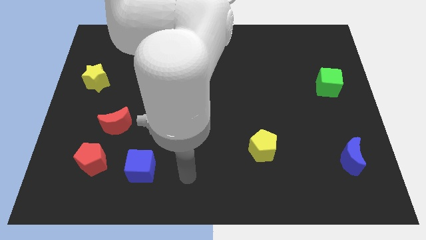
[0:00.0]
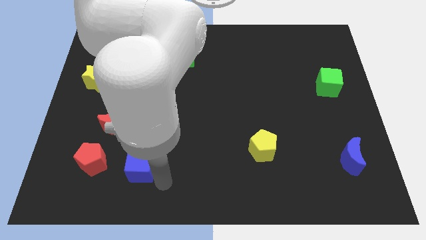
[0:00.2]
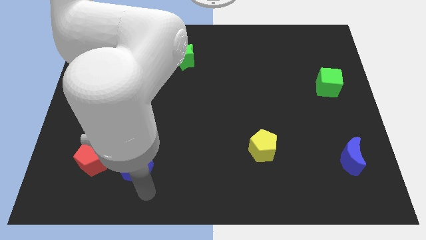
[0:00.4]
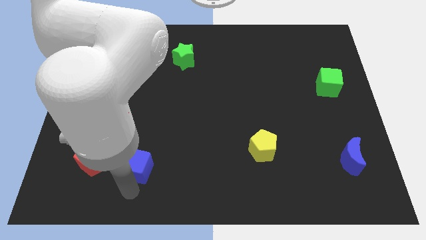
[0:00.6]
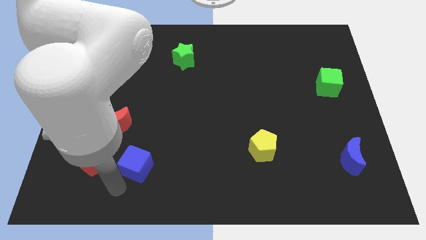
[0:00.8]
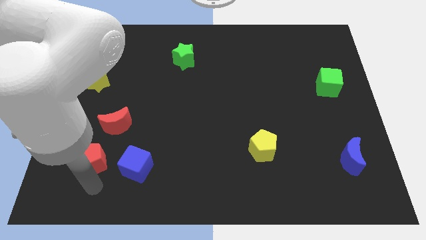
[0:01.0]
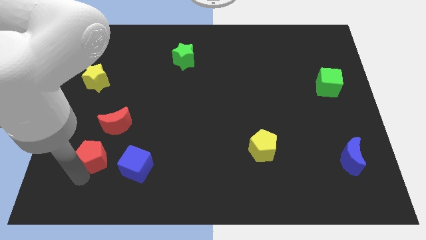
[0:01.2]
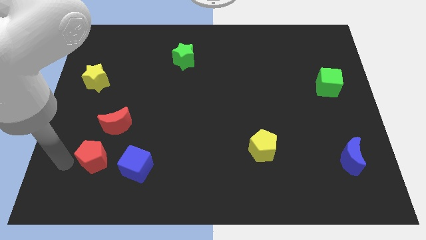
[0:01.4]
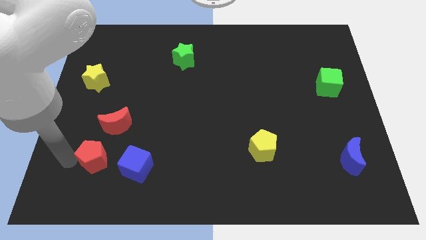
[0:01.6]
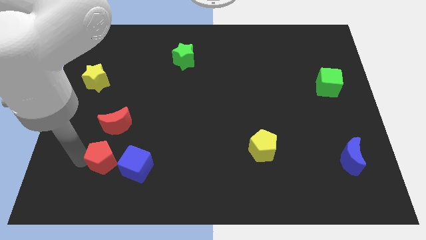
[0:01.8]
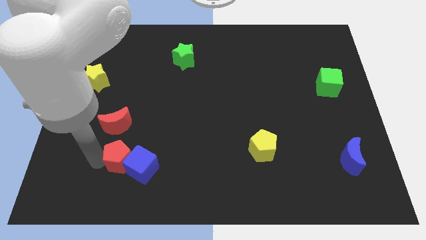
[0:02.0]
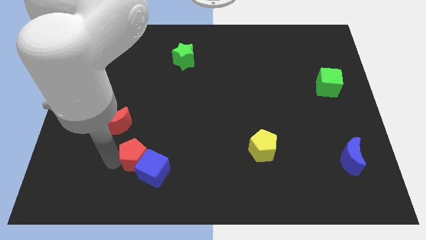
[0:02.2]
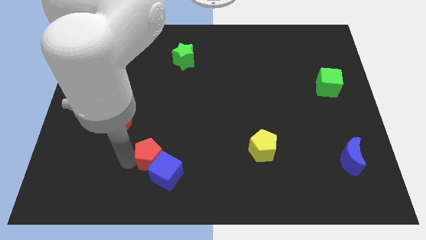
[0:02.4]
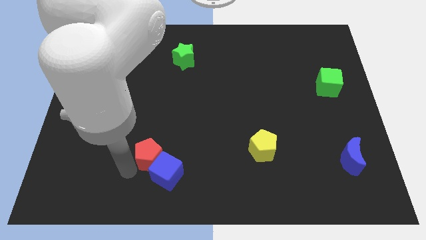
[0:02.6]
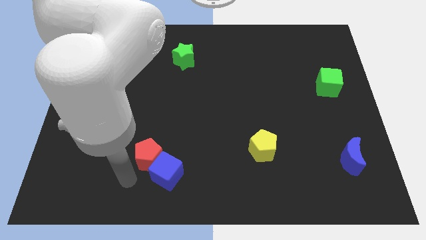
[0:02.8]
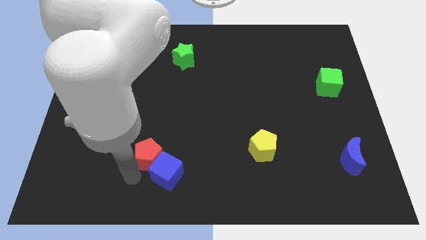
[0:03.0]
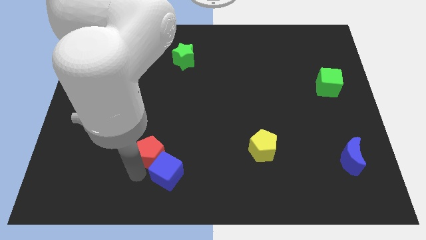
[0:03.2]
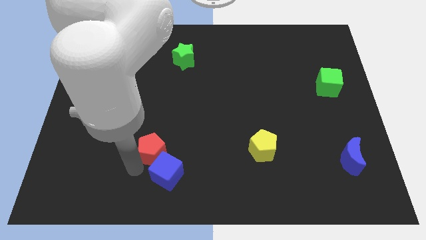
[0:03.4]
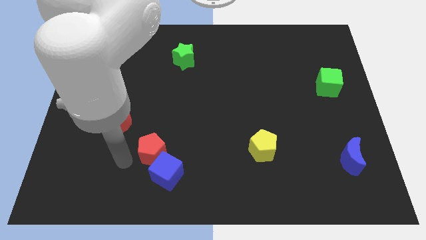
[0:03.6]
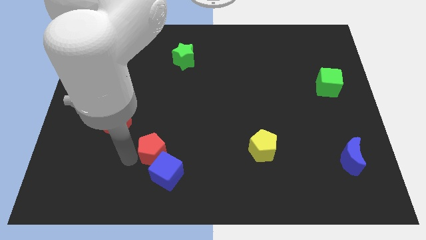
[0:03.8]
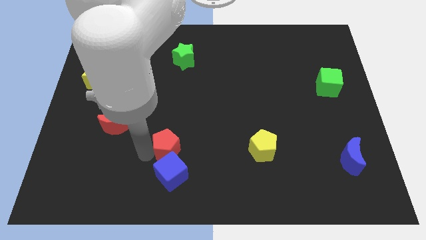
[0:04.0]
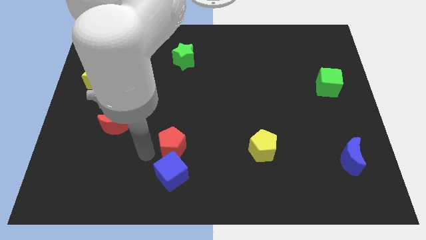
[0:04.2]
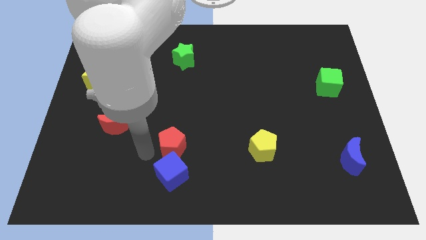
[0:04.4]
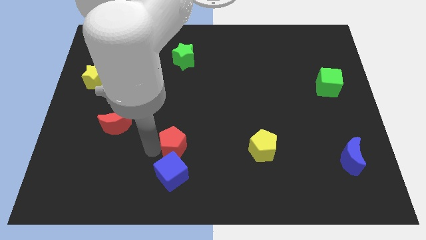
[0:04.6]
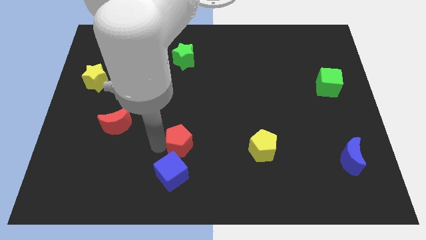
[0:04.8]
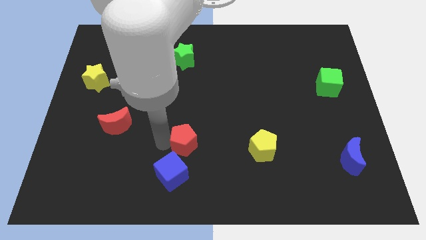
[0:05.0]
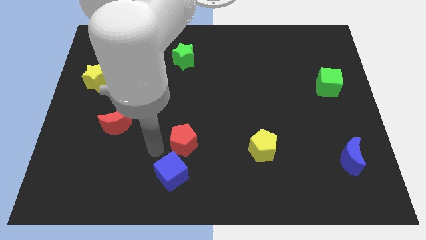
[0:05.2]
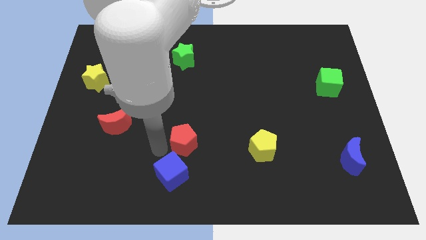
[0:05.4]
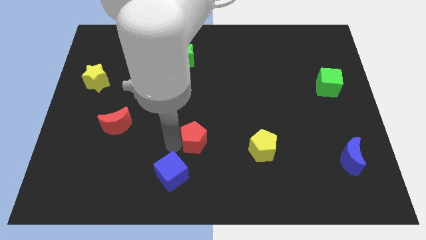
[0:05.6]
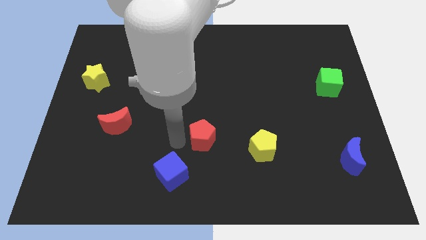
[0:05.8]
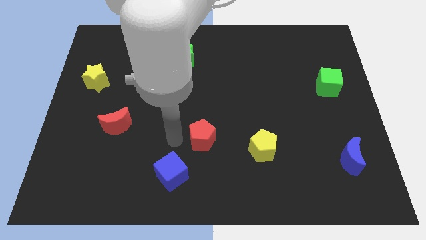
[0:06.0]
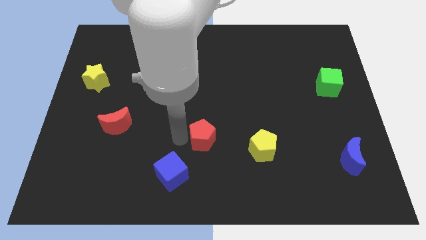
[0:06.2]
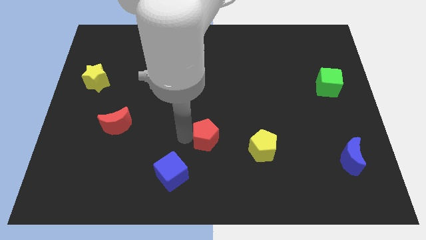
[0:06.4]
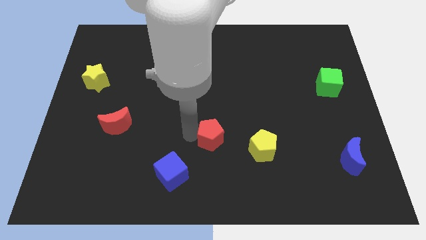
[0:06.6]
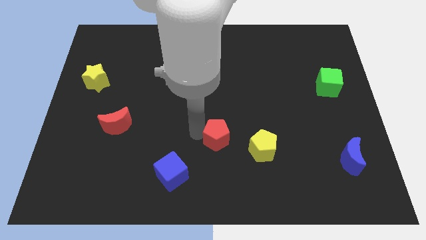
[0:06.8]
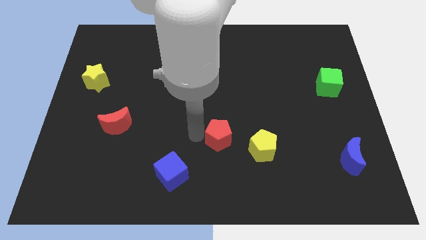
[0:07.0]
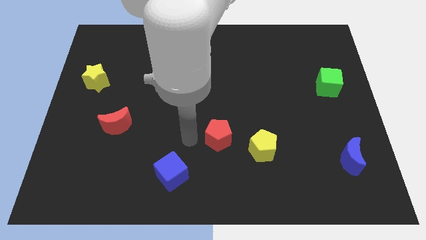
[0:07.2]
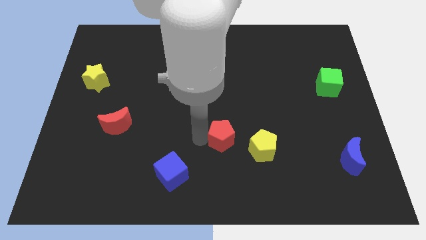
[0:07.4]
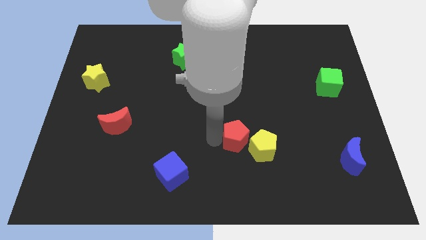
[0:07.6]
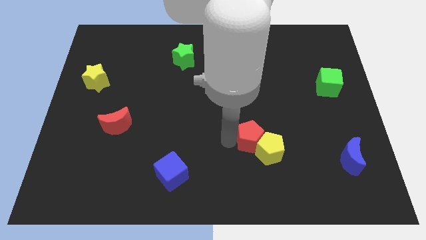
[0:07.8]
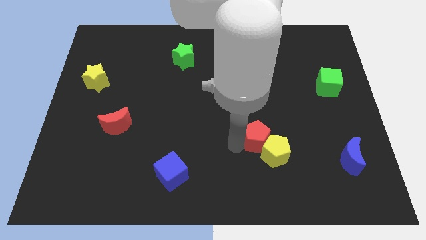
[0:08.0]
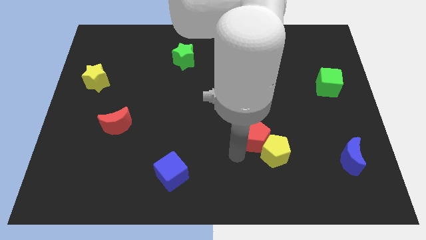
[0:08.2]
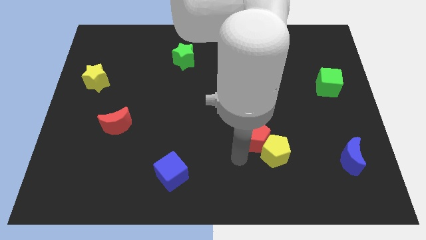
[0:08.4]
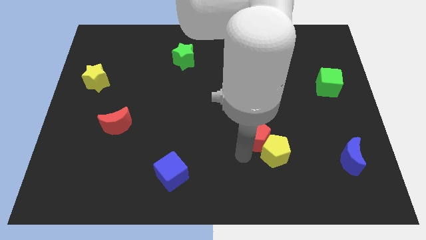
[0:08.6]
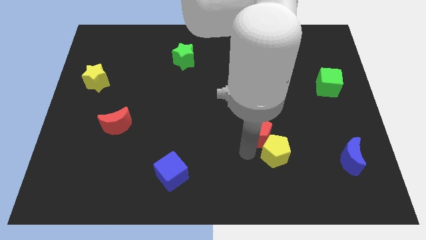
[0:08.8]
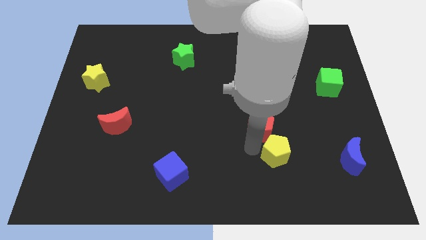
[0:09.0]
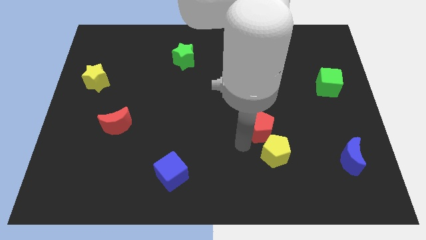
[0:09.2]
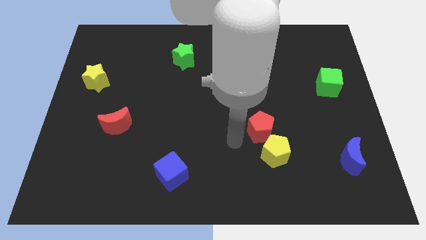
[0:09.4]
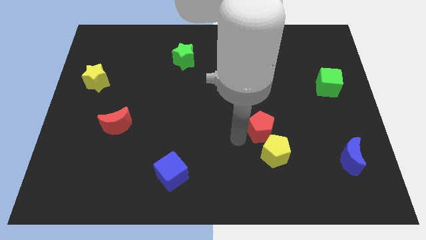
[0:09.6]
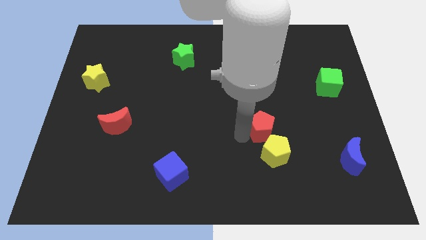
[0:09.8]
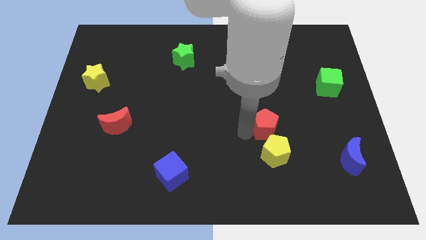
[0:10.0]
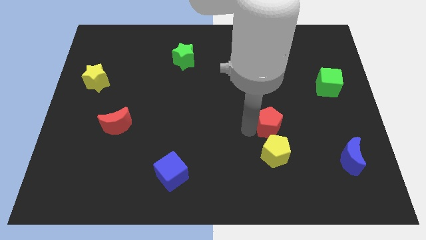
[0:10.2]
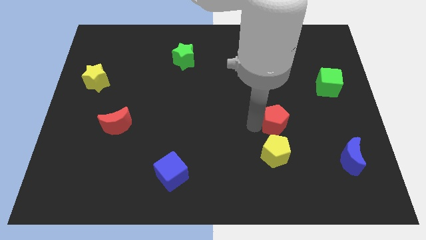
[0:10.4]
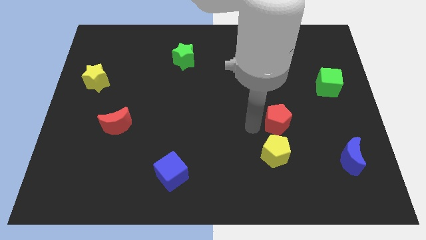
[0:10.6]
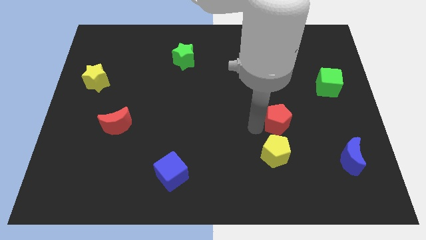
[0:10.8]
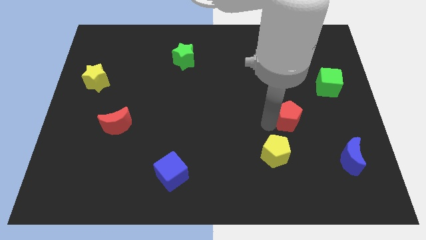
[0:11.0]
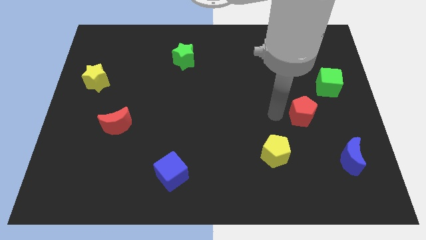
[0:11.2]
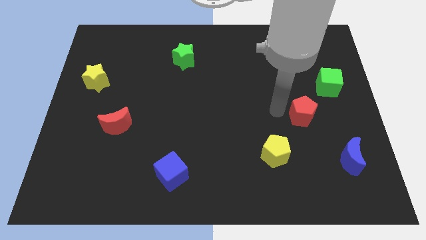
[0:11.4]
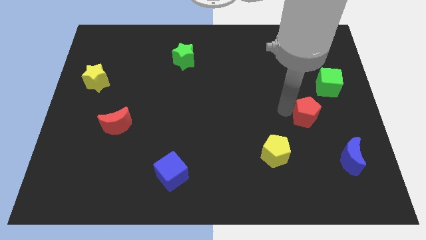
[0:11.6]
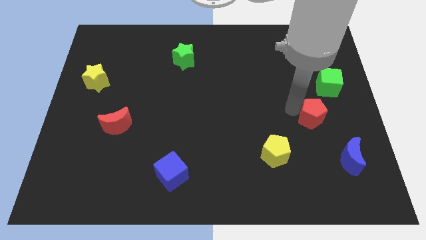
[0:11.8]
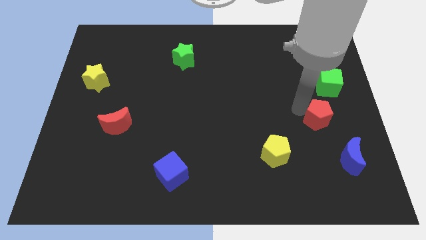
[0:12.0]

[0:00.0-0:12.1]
move the red pentagon to the top side of the blue moon

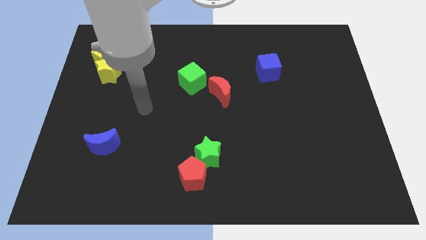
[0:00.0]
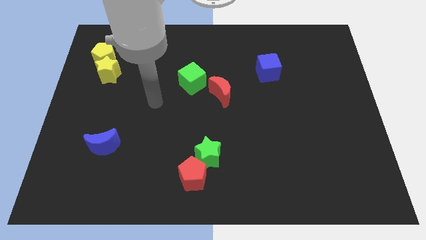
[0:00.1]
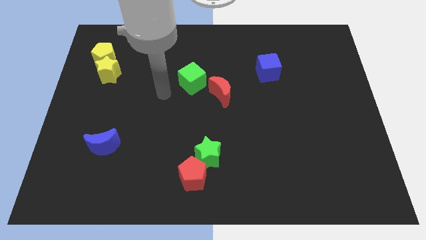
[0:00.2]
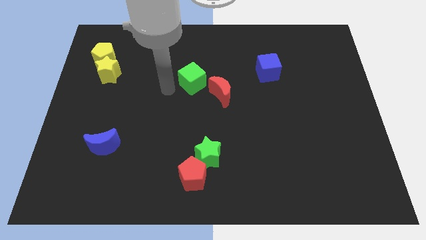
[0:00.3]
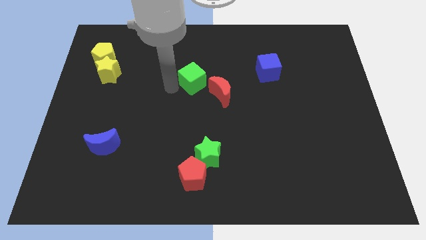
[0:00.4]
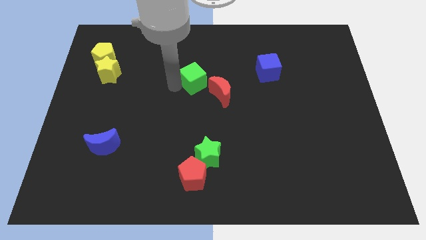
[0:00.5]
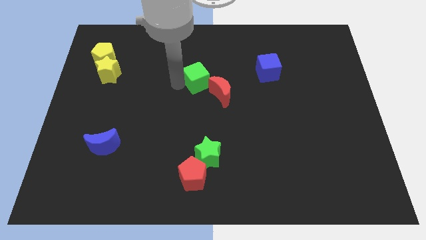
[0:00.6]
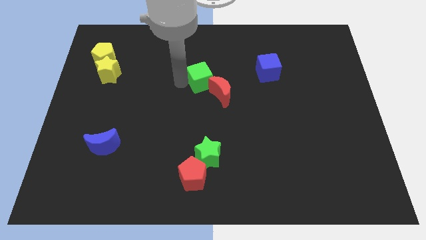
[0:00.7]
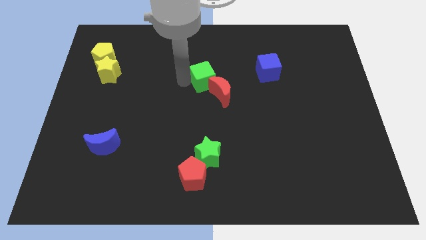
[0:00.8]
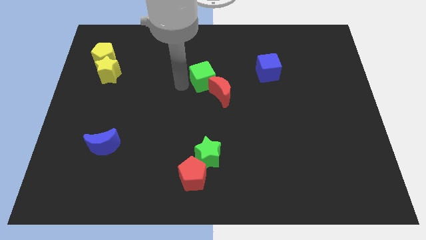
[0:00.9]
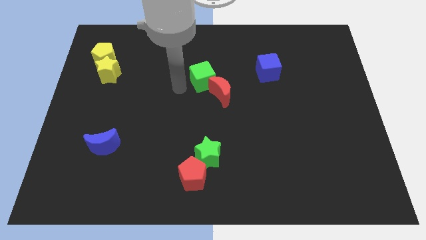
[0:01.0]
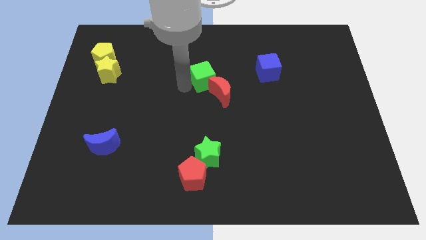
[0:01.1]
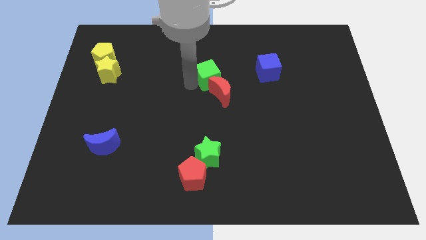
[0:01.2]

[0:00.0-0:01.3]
push the green cube to the left side of the blue cube
